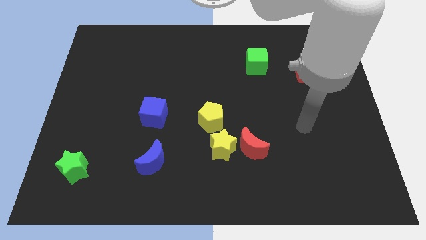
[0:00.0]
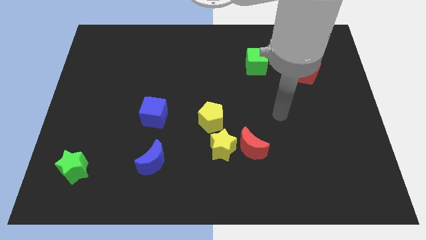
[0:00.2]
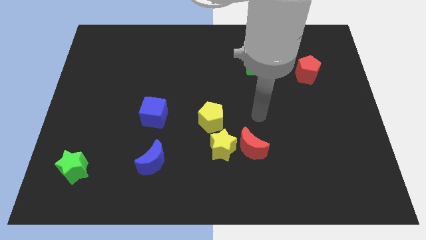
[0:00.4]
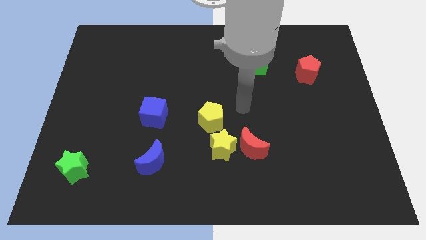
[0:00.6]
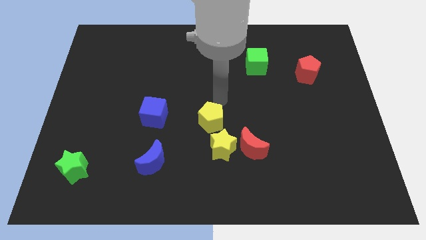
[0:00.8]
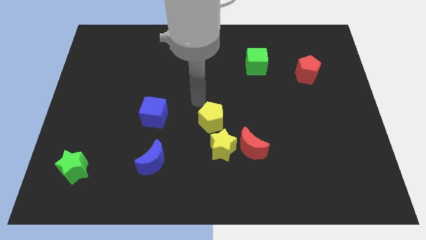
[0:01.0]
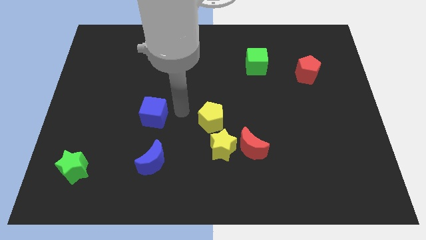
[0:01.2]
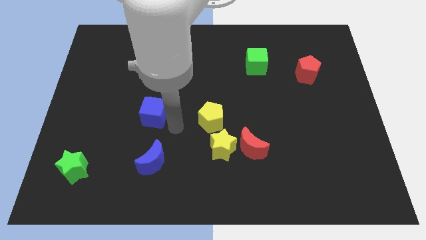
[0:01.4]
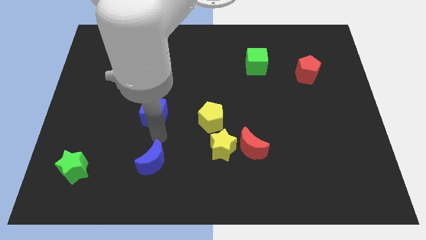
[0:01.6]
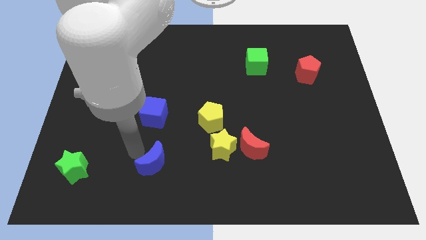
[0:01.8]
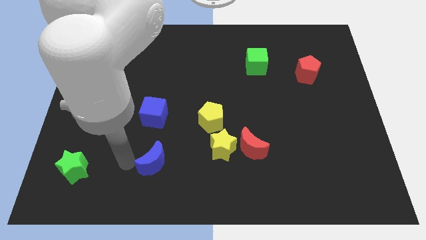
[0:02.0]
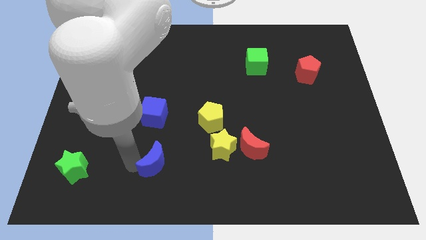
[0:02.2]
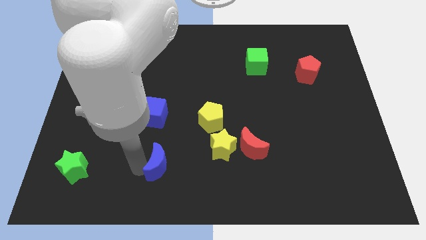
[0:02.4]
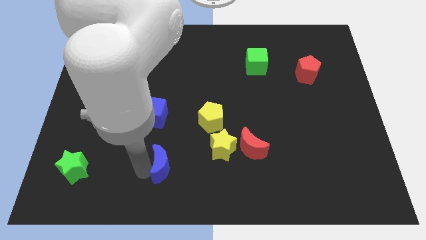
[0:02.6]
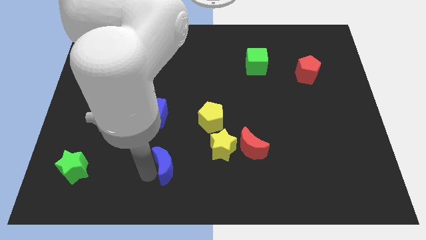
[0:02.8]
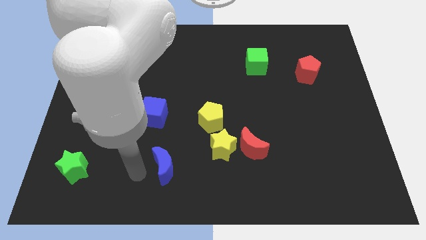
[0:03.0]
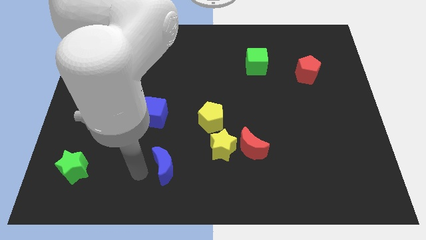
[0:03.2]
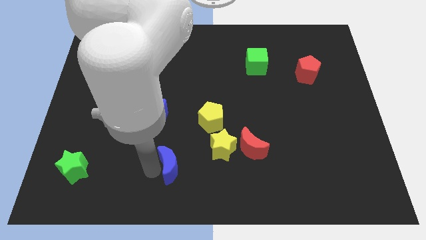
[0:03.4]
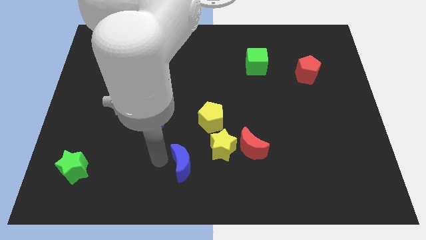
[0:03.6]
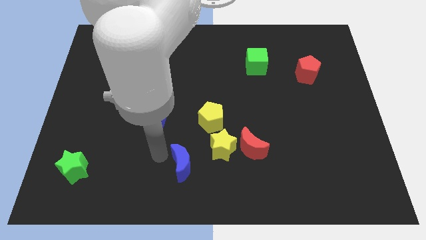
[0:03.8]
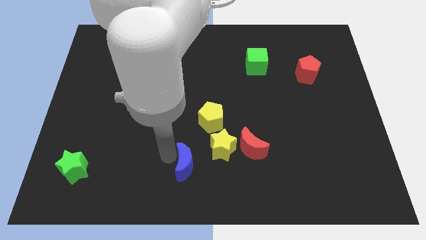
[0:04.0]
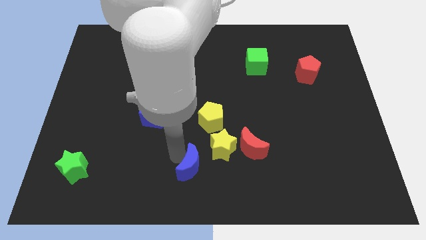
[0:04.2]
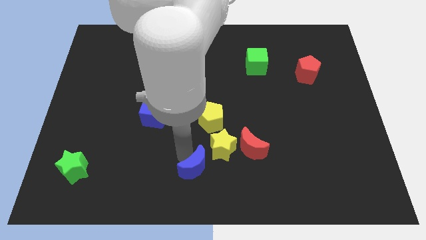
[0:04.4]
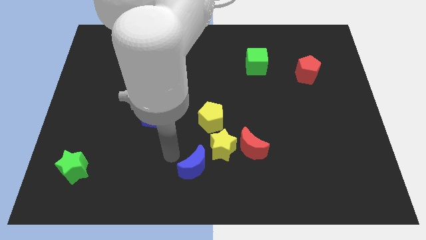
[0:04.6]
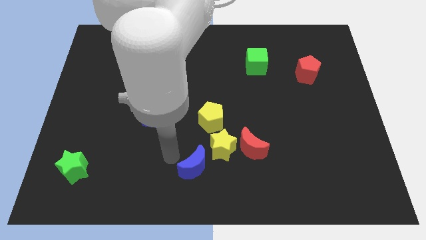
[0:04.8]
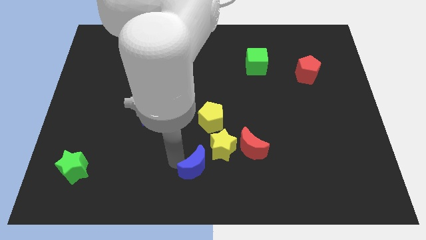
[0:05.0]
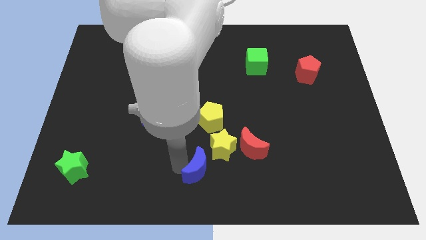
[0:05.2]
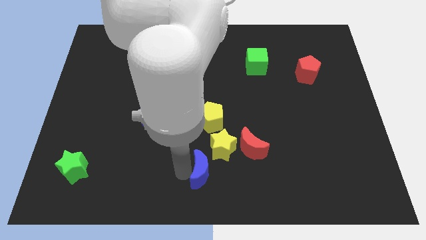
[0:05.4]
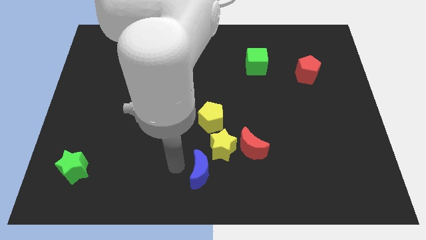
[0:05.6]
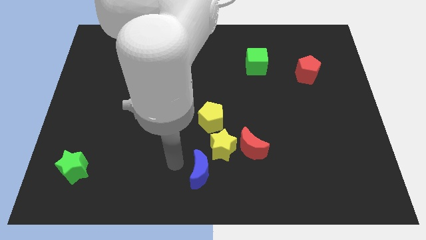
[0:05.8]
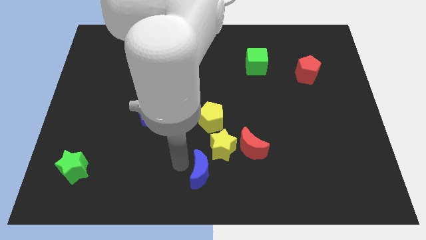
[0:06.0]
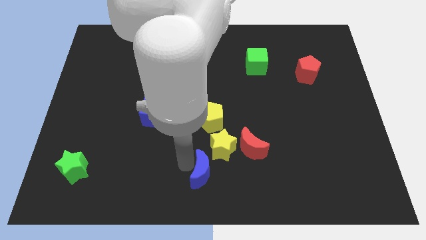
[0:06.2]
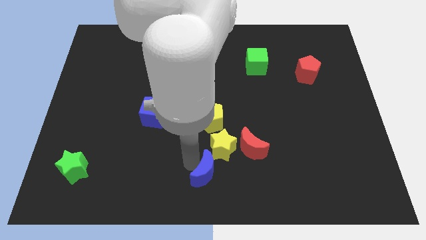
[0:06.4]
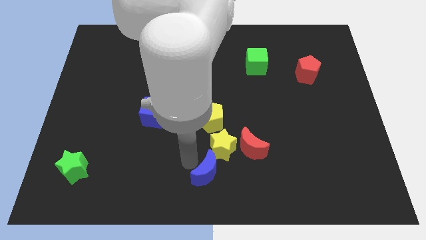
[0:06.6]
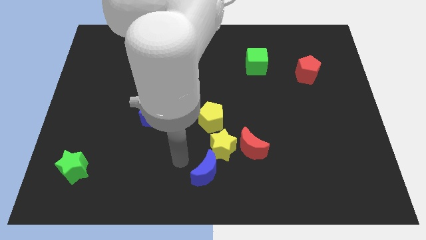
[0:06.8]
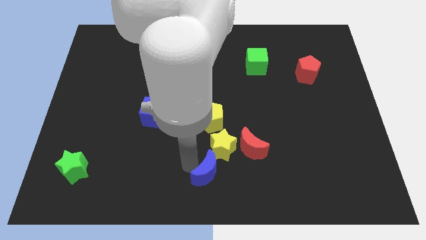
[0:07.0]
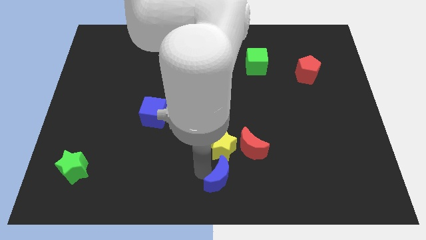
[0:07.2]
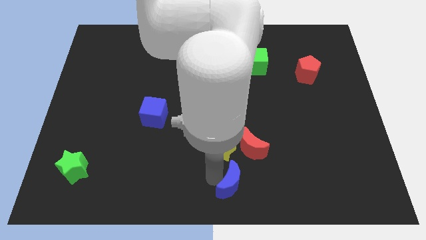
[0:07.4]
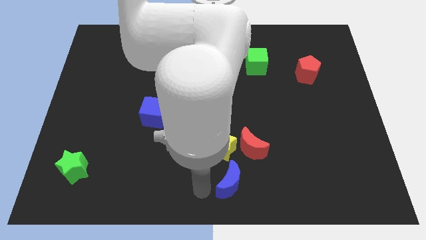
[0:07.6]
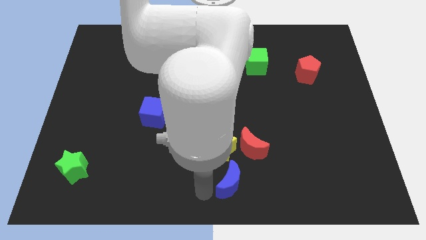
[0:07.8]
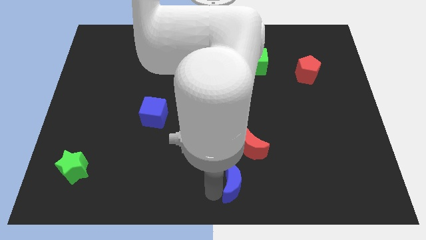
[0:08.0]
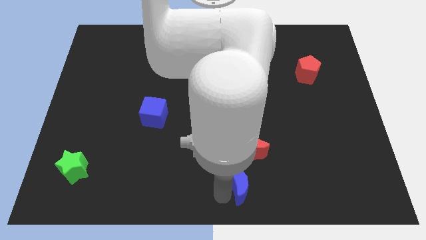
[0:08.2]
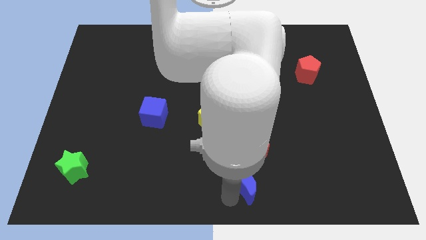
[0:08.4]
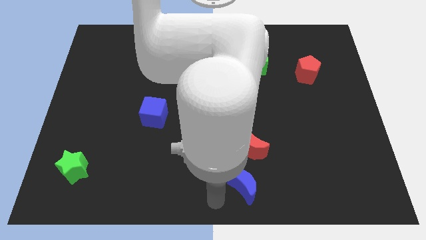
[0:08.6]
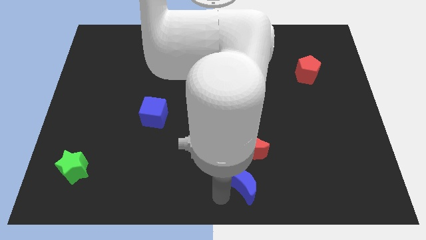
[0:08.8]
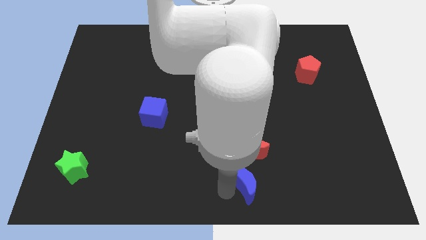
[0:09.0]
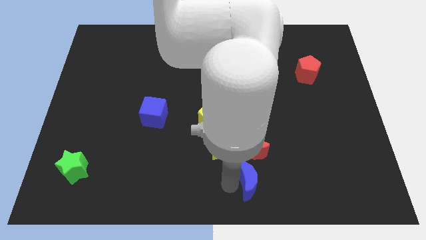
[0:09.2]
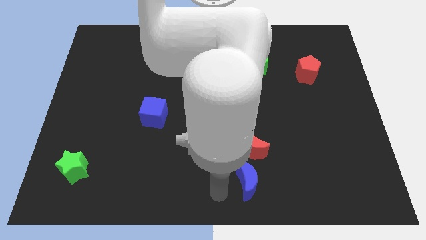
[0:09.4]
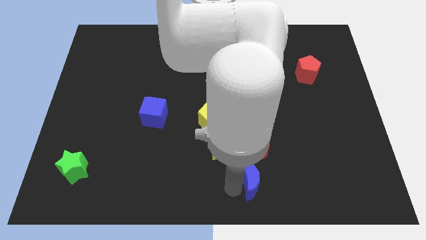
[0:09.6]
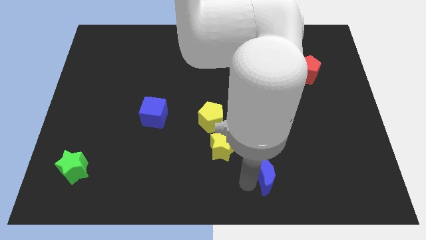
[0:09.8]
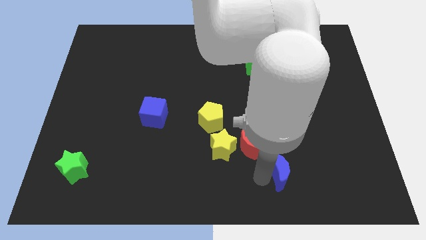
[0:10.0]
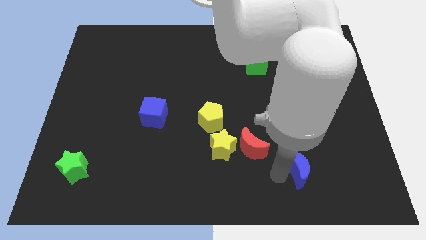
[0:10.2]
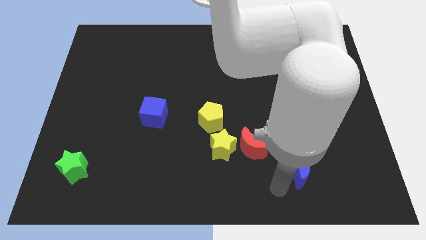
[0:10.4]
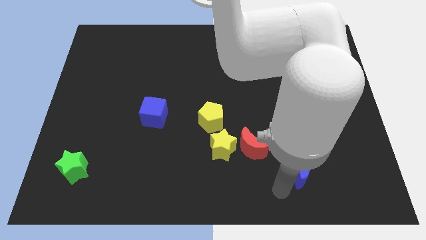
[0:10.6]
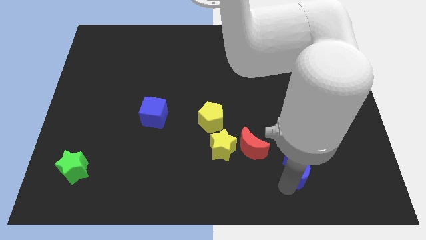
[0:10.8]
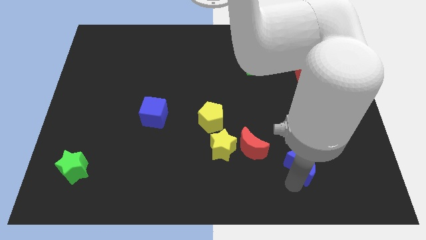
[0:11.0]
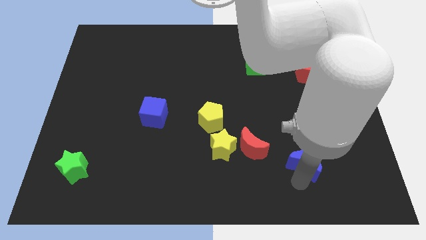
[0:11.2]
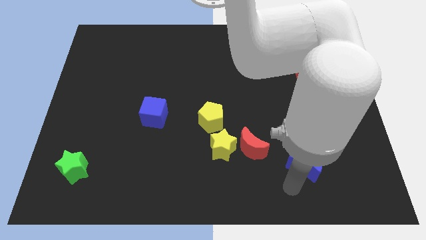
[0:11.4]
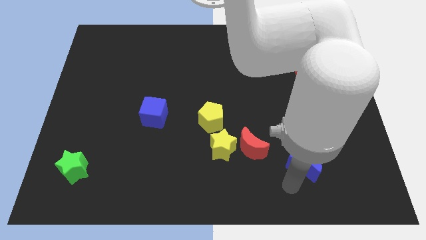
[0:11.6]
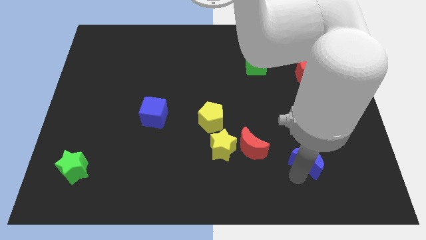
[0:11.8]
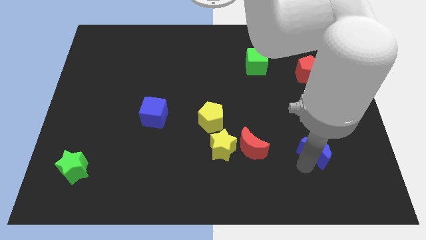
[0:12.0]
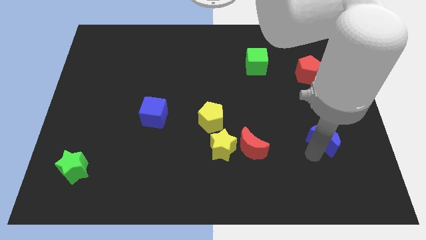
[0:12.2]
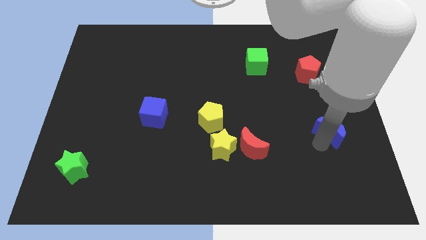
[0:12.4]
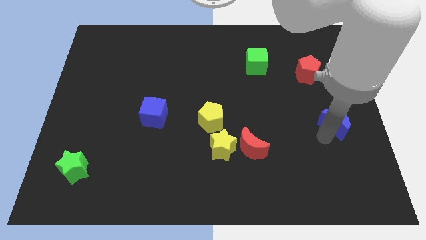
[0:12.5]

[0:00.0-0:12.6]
move the blue moon to the right side
